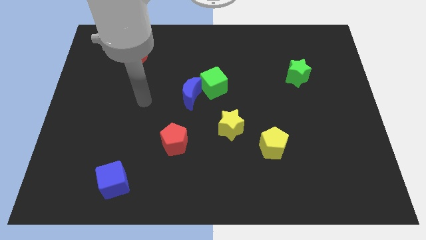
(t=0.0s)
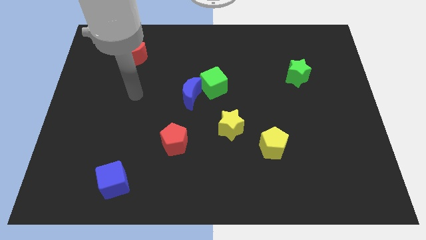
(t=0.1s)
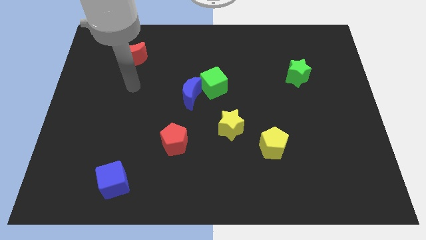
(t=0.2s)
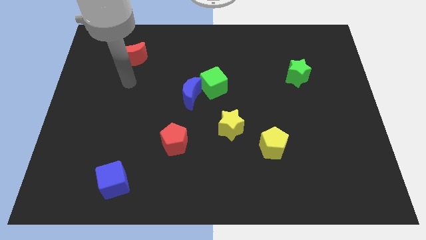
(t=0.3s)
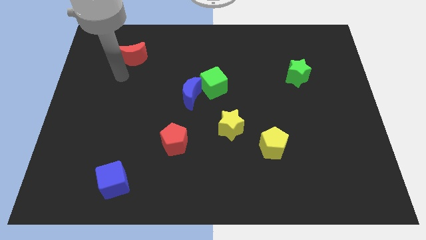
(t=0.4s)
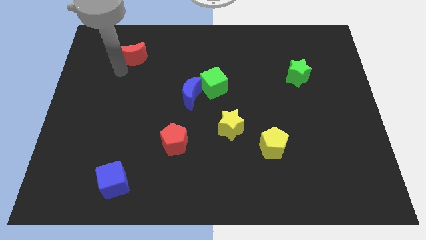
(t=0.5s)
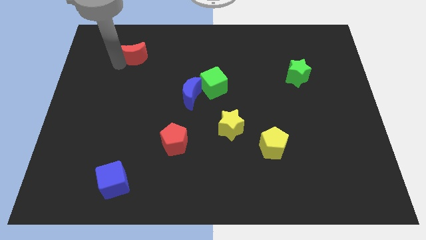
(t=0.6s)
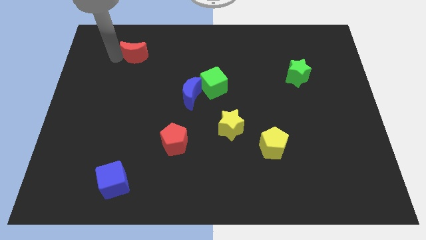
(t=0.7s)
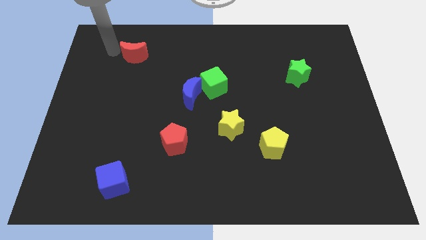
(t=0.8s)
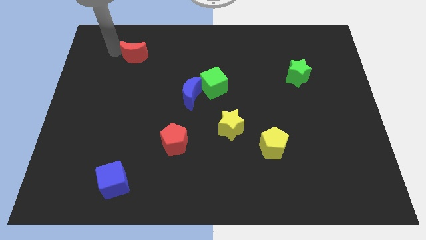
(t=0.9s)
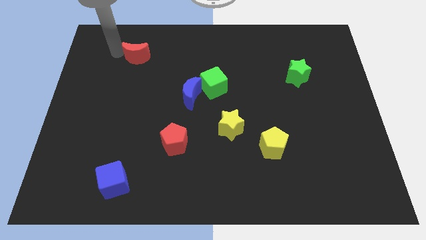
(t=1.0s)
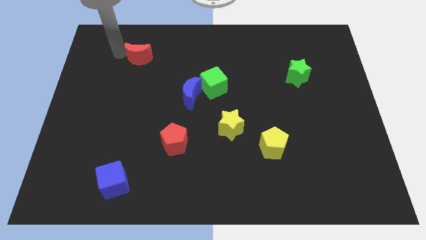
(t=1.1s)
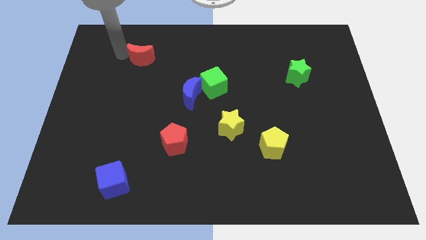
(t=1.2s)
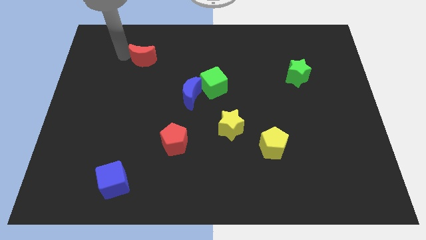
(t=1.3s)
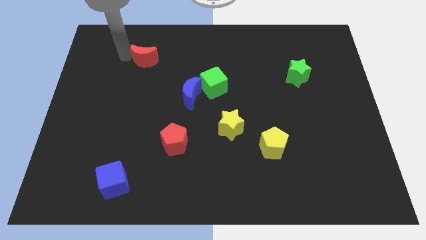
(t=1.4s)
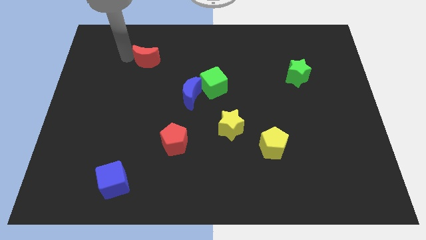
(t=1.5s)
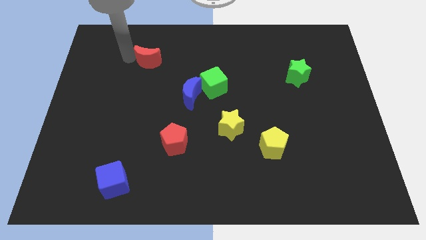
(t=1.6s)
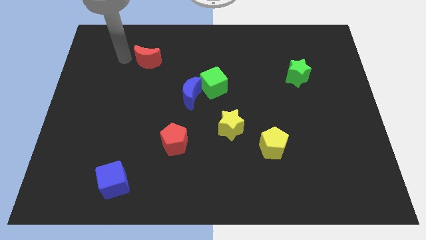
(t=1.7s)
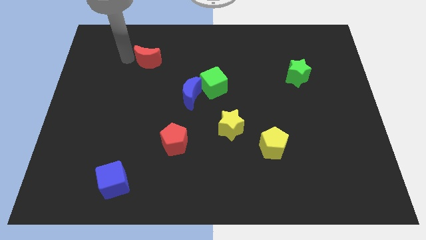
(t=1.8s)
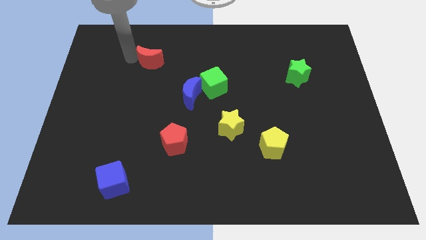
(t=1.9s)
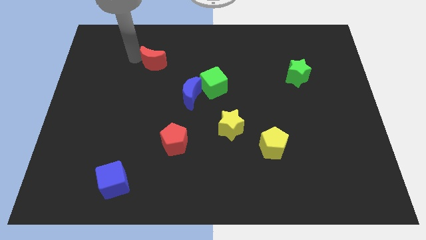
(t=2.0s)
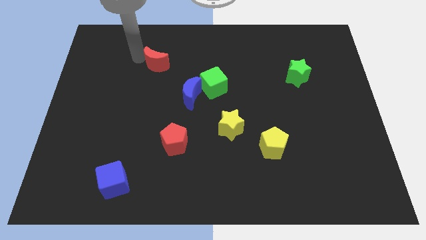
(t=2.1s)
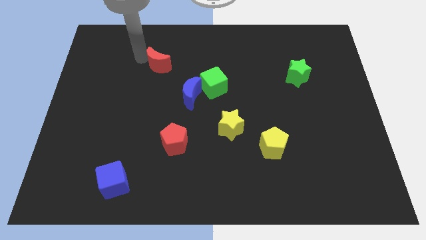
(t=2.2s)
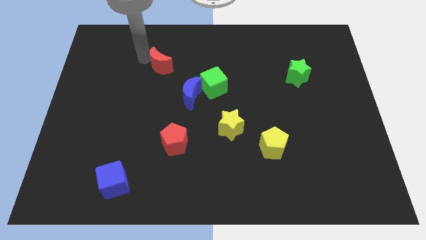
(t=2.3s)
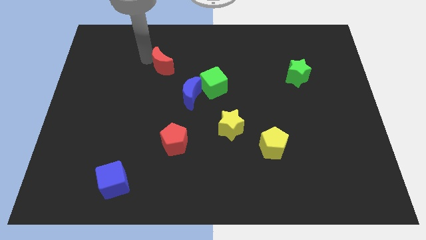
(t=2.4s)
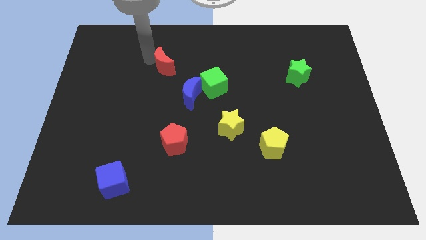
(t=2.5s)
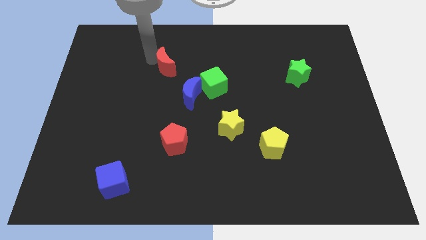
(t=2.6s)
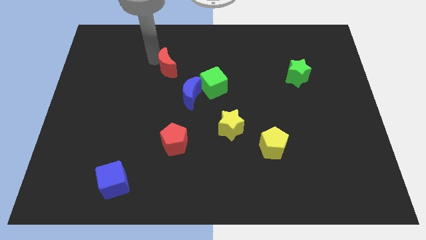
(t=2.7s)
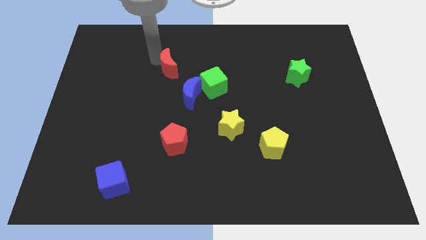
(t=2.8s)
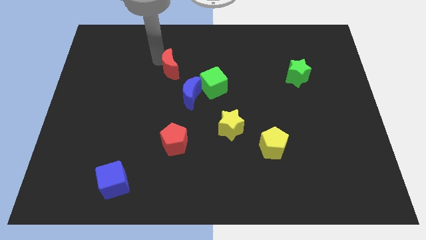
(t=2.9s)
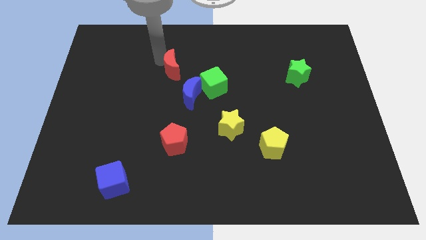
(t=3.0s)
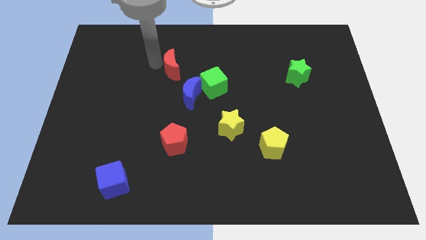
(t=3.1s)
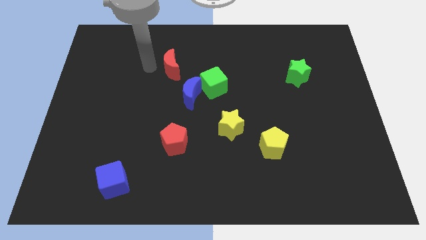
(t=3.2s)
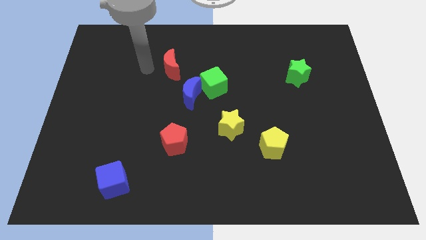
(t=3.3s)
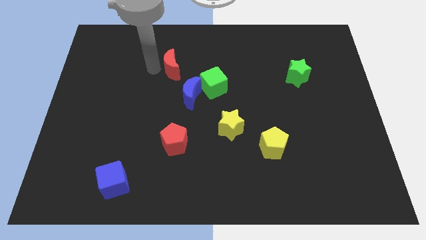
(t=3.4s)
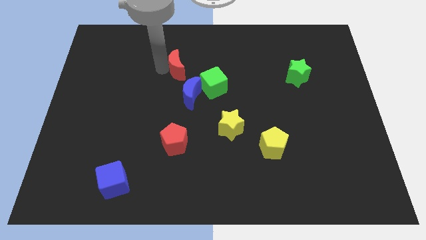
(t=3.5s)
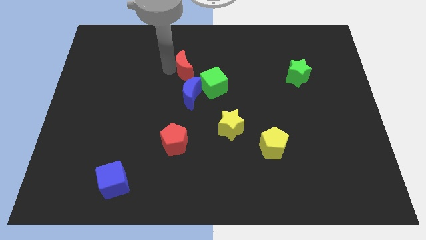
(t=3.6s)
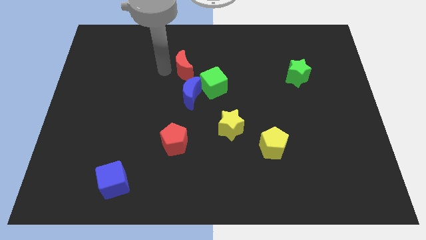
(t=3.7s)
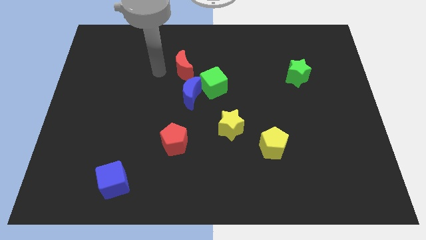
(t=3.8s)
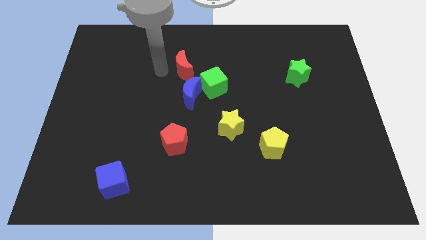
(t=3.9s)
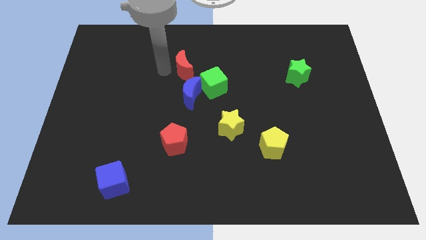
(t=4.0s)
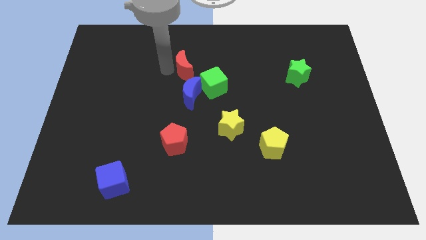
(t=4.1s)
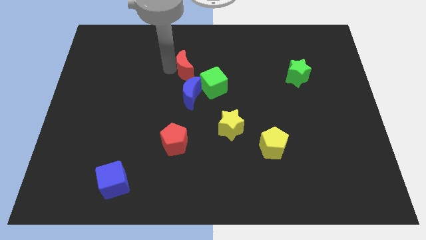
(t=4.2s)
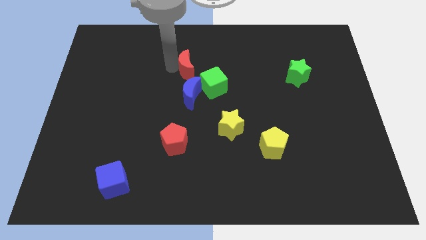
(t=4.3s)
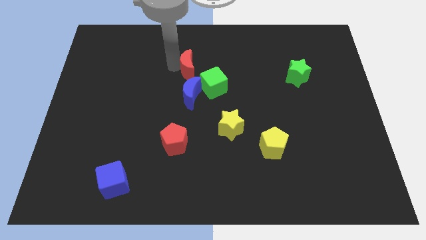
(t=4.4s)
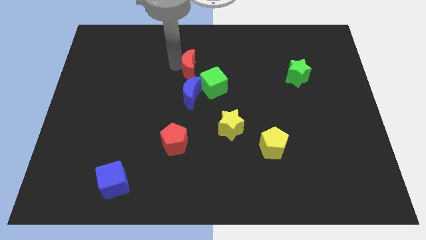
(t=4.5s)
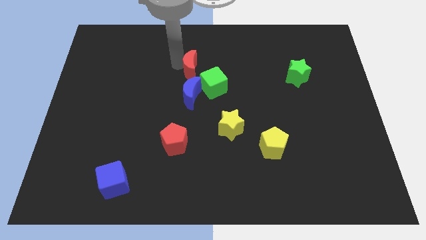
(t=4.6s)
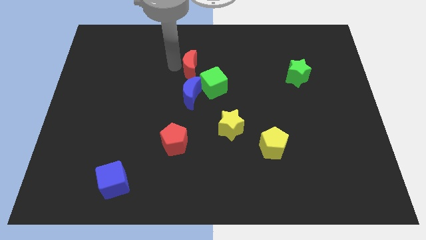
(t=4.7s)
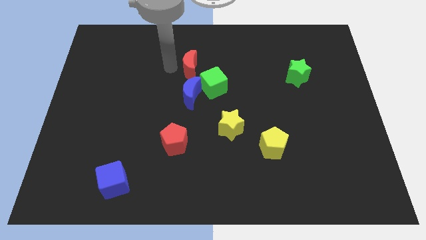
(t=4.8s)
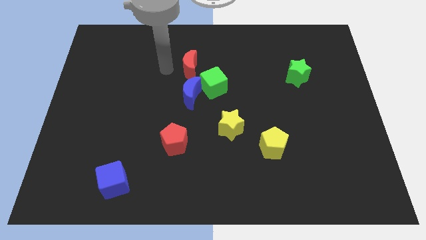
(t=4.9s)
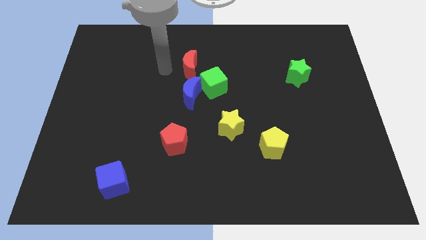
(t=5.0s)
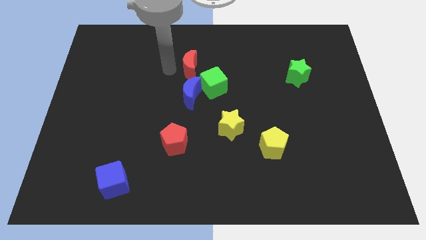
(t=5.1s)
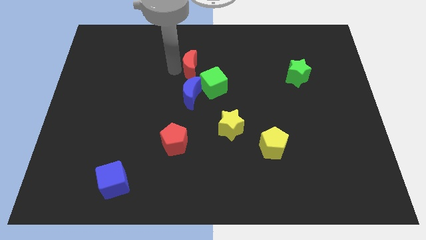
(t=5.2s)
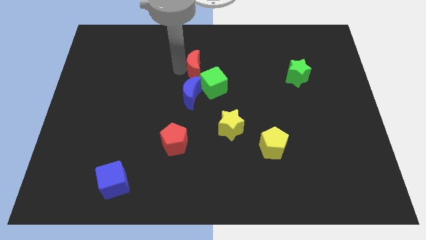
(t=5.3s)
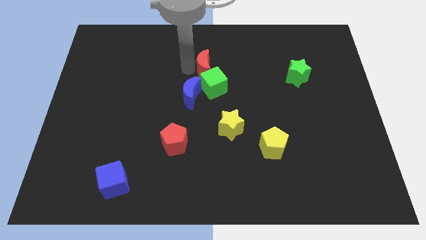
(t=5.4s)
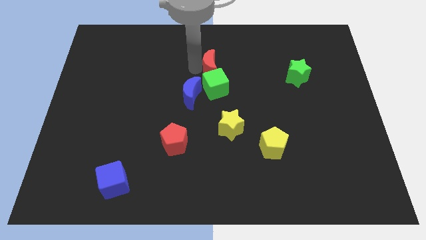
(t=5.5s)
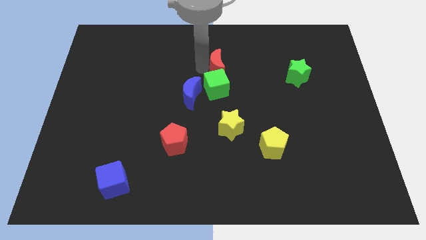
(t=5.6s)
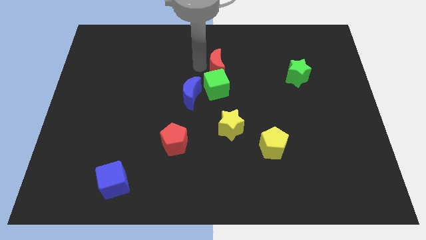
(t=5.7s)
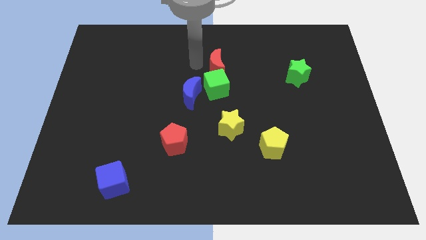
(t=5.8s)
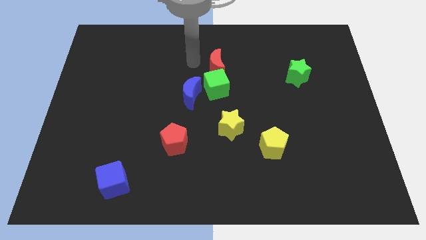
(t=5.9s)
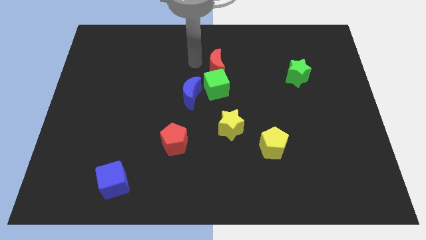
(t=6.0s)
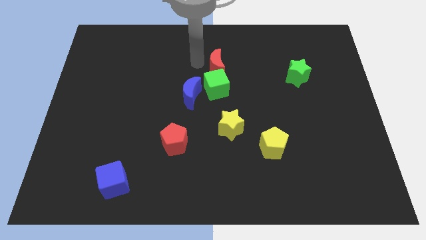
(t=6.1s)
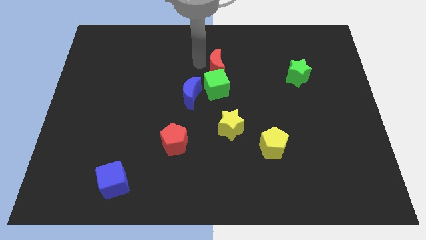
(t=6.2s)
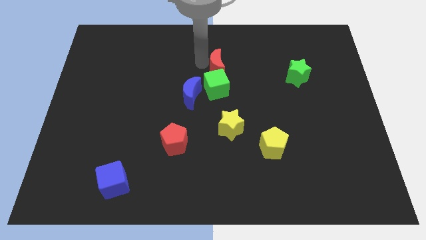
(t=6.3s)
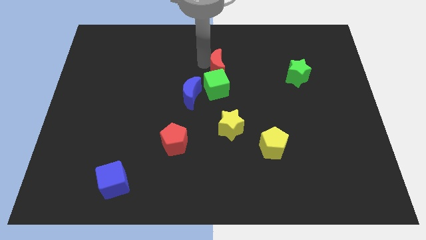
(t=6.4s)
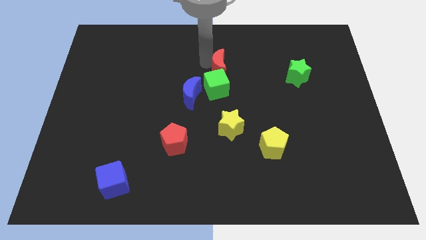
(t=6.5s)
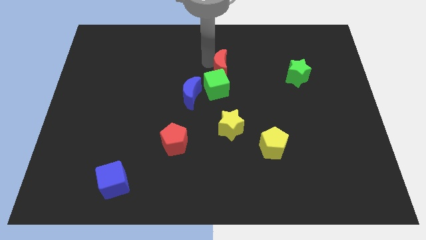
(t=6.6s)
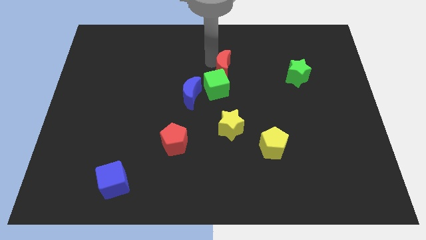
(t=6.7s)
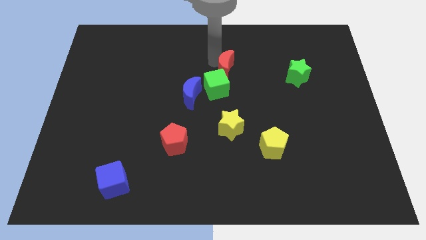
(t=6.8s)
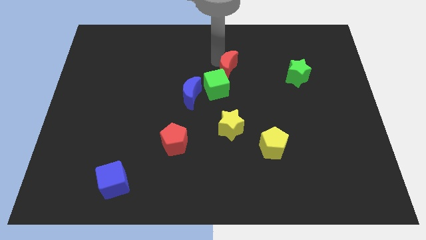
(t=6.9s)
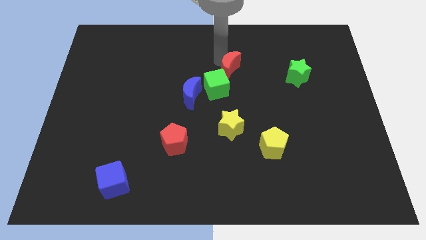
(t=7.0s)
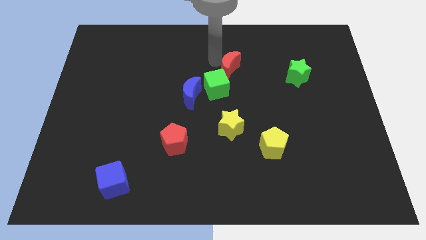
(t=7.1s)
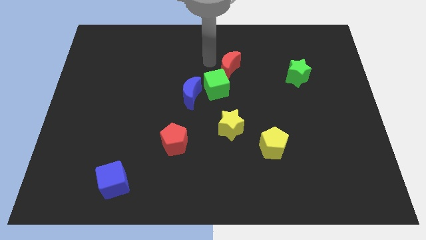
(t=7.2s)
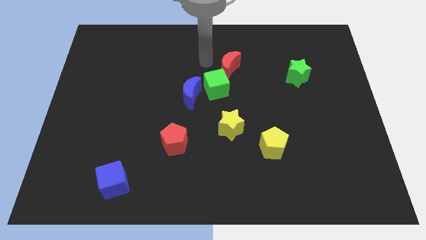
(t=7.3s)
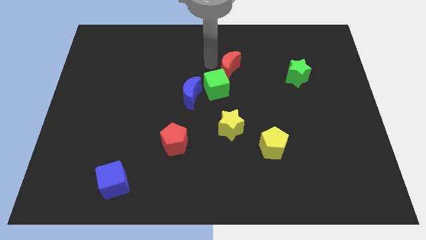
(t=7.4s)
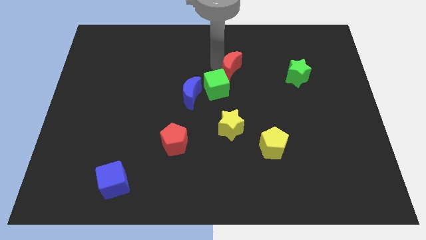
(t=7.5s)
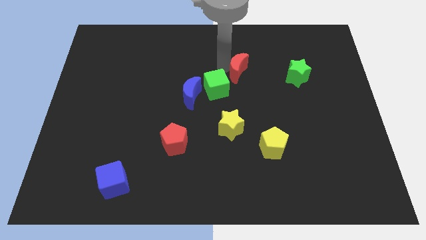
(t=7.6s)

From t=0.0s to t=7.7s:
push the red moon left of the green star
